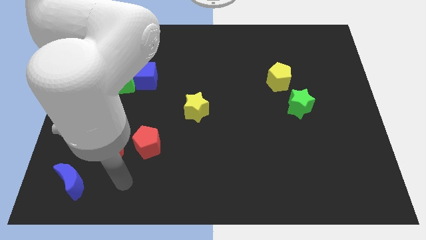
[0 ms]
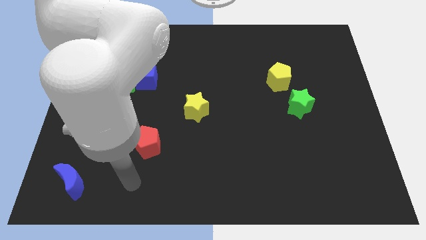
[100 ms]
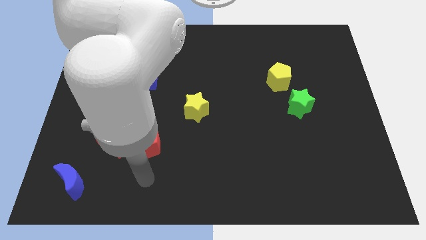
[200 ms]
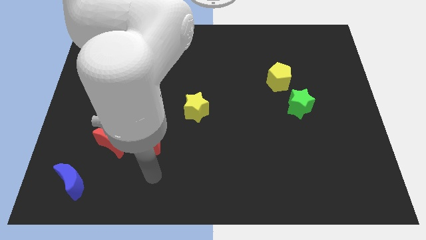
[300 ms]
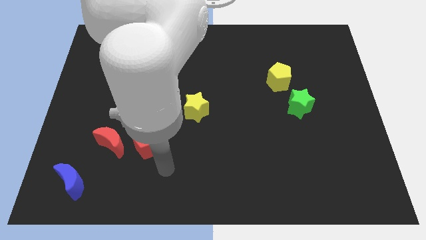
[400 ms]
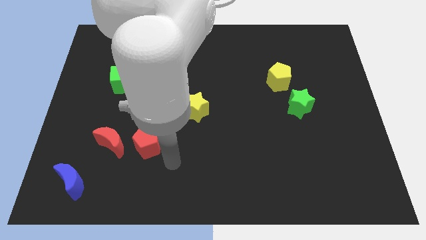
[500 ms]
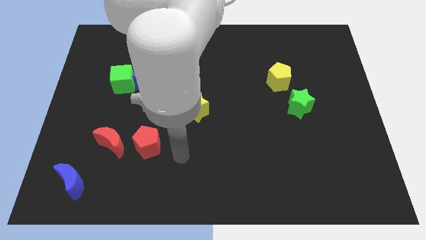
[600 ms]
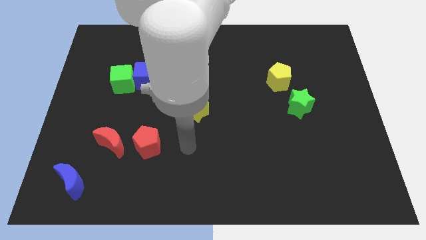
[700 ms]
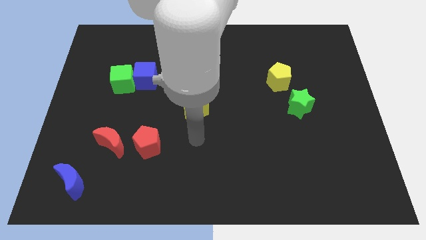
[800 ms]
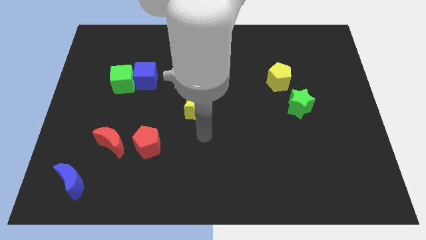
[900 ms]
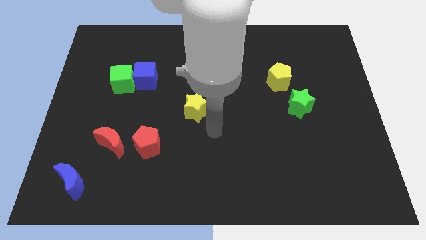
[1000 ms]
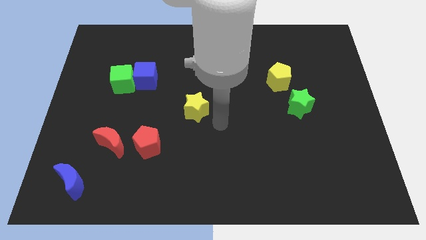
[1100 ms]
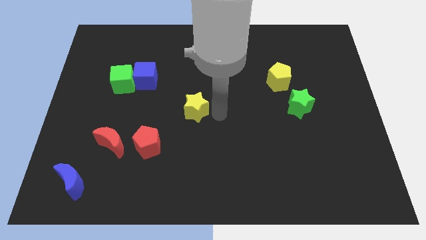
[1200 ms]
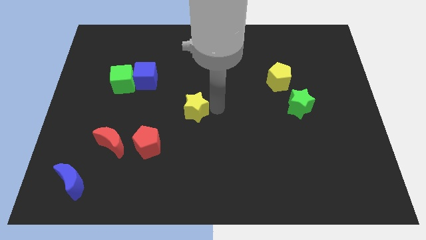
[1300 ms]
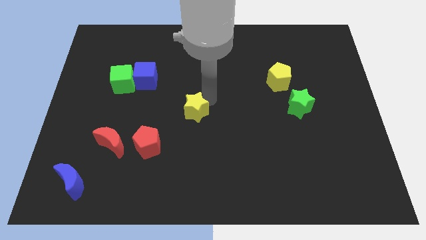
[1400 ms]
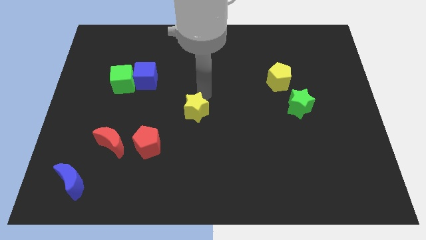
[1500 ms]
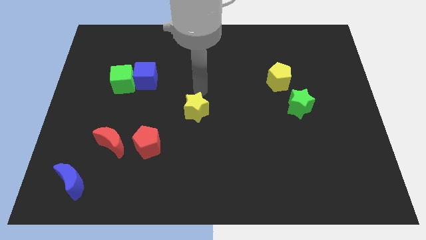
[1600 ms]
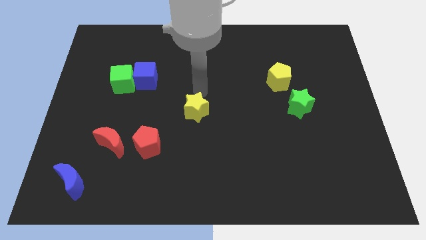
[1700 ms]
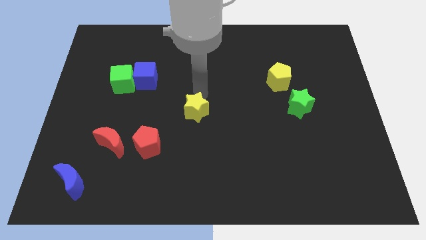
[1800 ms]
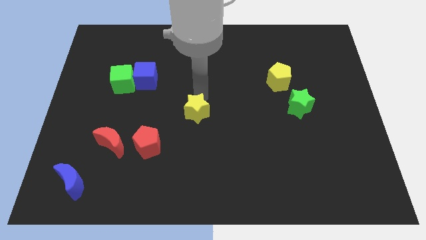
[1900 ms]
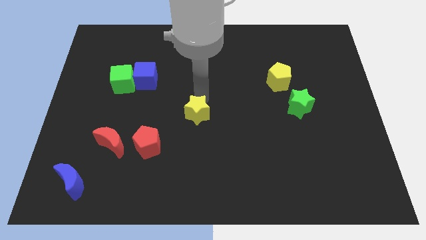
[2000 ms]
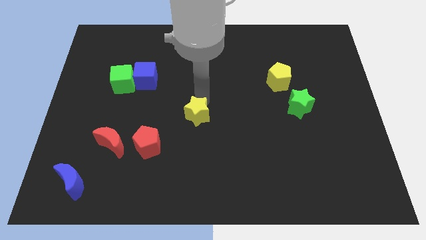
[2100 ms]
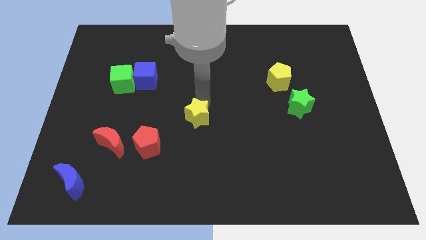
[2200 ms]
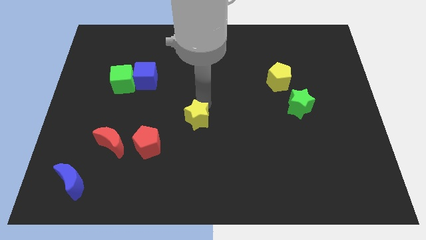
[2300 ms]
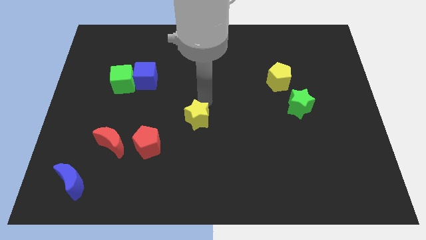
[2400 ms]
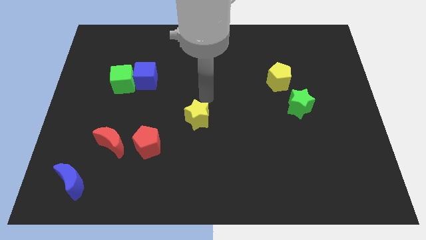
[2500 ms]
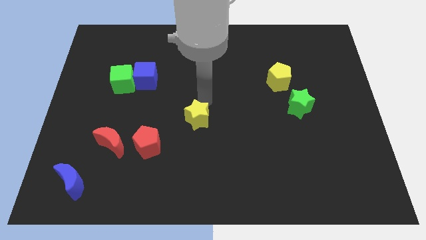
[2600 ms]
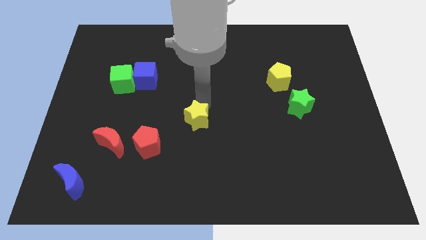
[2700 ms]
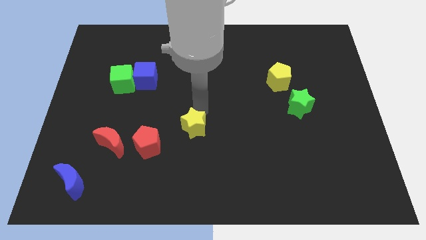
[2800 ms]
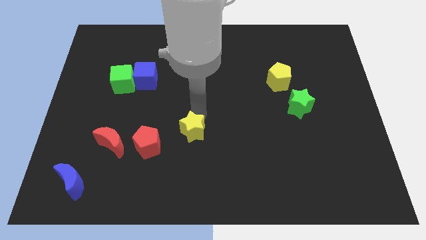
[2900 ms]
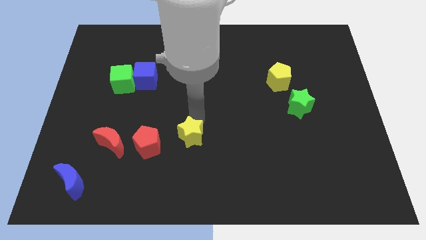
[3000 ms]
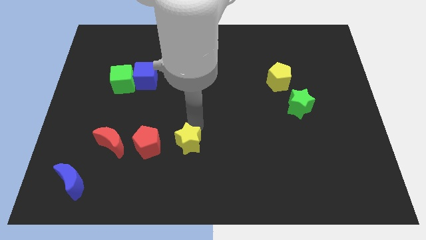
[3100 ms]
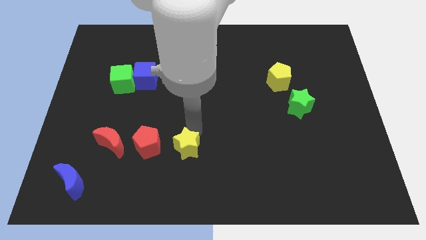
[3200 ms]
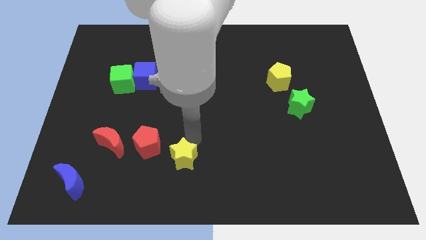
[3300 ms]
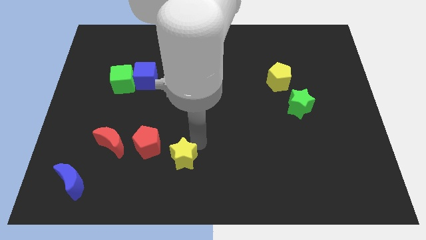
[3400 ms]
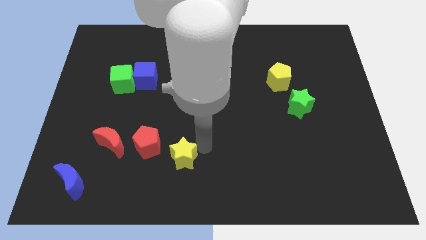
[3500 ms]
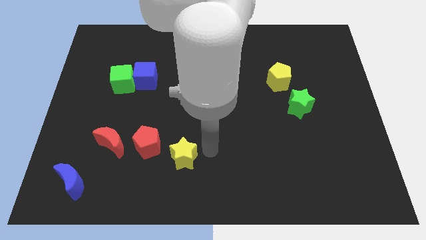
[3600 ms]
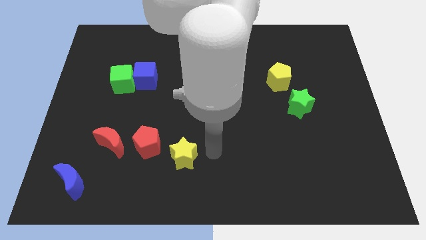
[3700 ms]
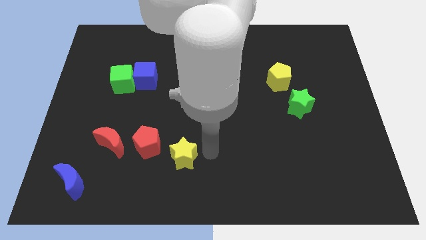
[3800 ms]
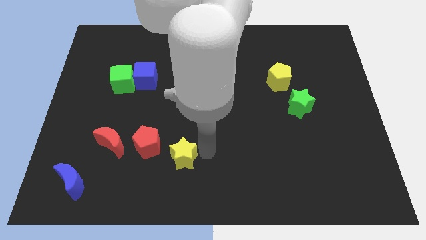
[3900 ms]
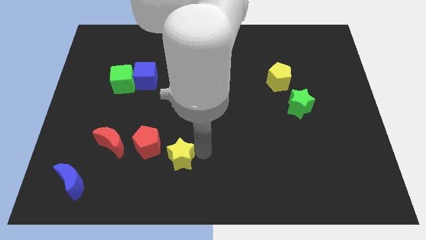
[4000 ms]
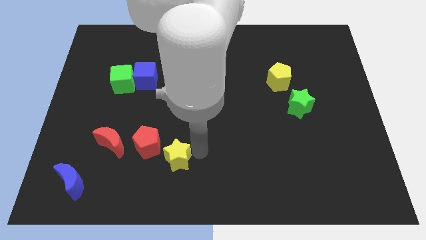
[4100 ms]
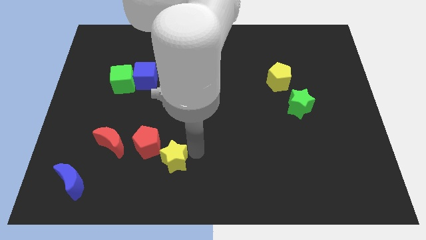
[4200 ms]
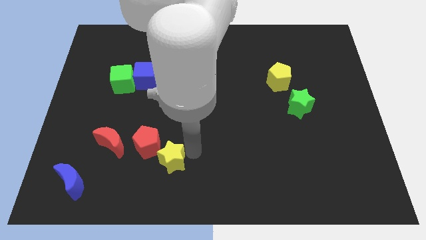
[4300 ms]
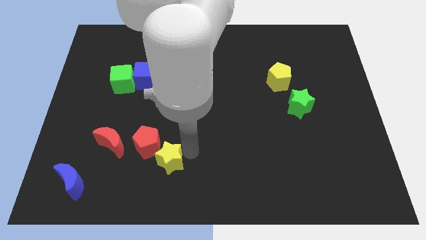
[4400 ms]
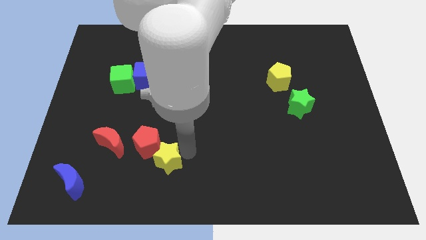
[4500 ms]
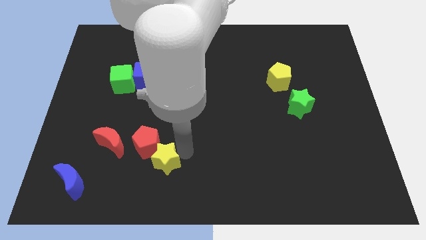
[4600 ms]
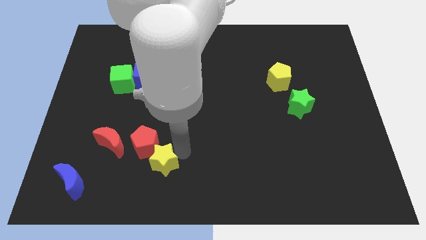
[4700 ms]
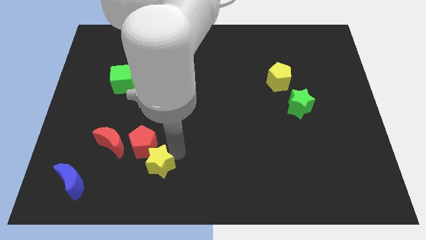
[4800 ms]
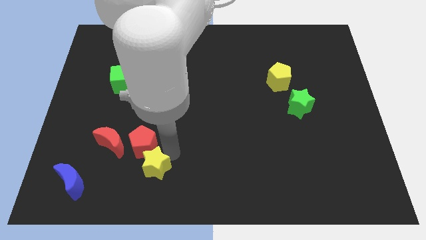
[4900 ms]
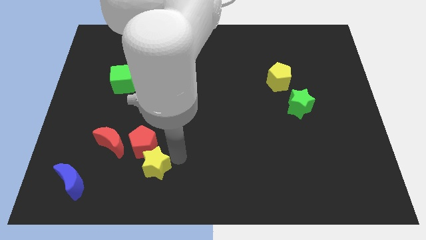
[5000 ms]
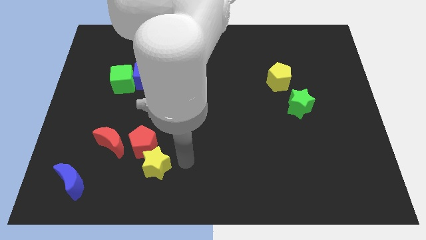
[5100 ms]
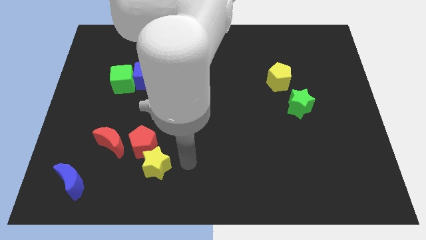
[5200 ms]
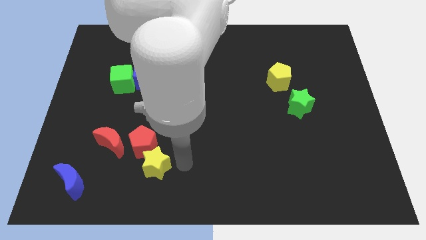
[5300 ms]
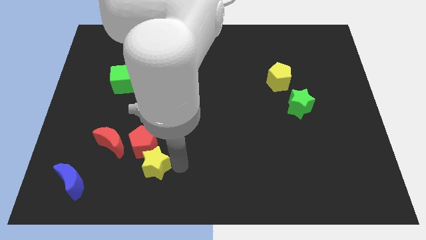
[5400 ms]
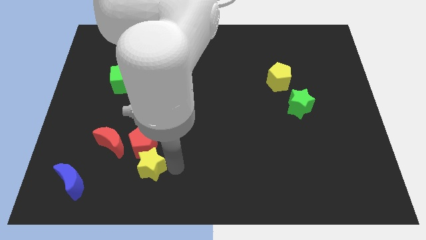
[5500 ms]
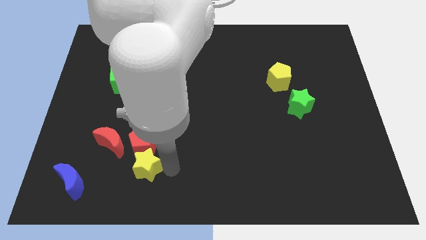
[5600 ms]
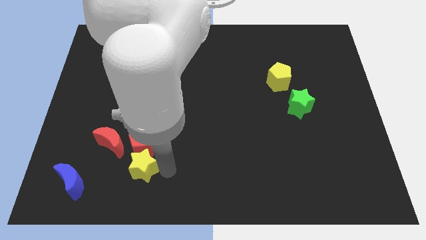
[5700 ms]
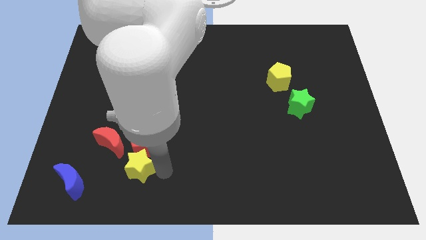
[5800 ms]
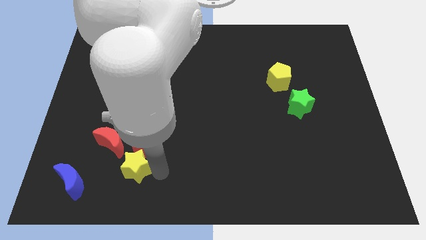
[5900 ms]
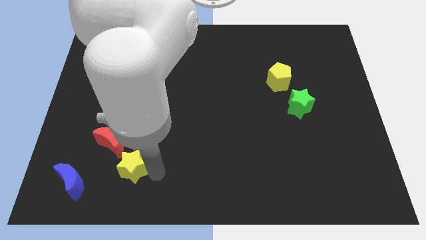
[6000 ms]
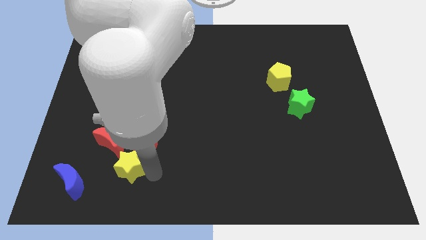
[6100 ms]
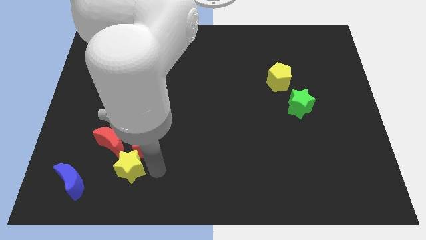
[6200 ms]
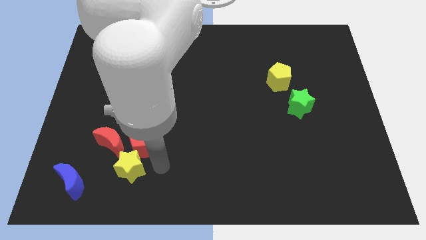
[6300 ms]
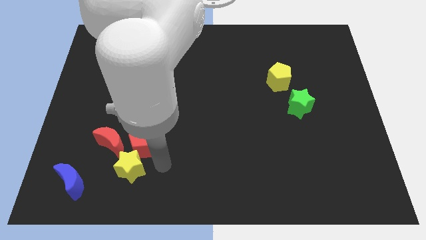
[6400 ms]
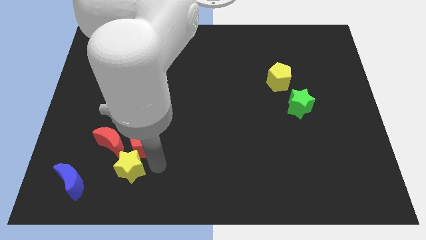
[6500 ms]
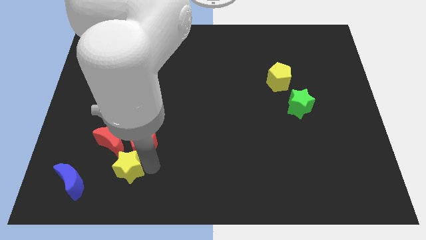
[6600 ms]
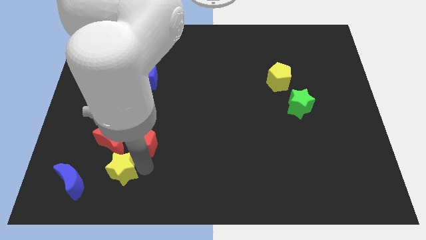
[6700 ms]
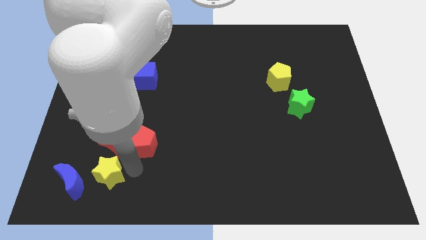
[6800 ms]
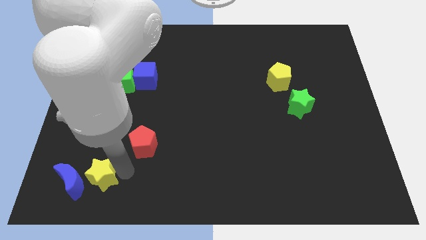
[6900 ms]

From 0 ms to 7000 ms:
put the yellow star towards the blue moon

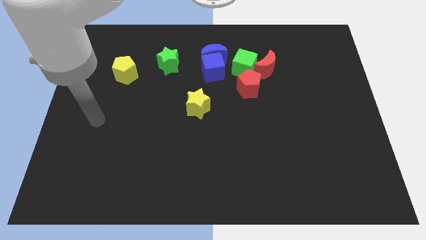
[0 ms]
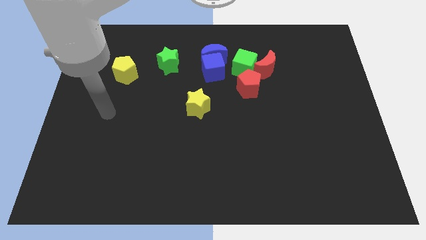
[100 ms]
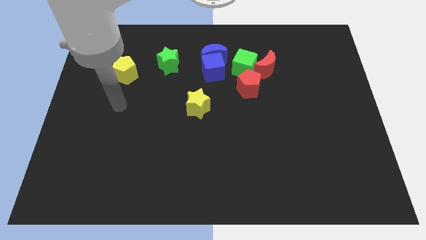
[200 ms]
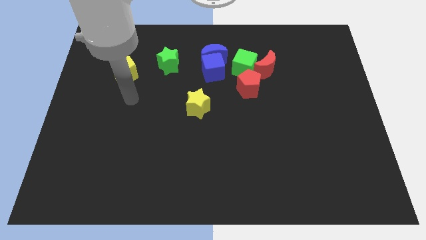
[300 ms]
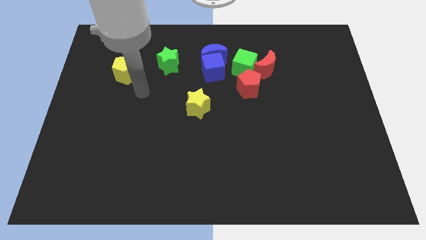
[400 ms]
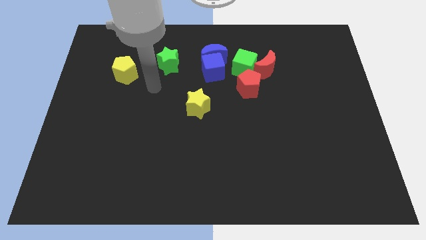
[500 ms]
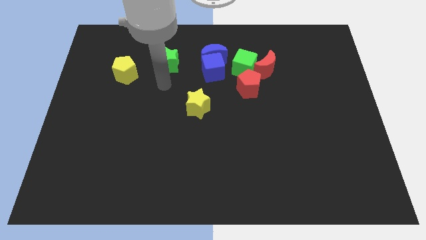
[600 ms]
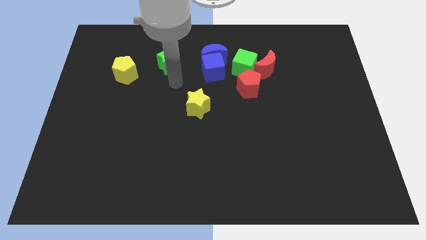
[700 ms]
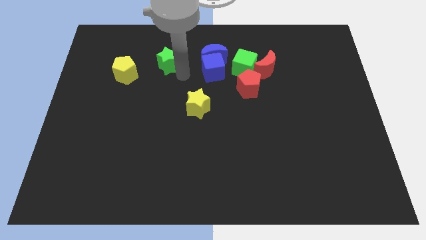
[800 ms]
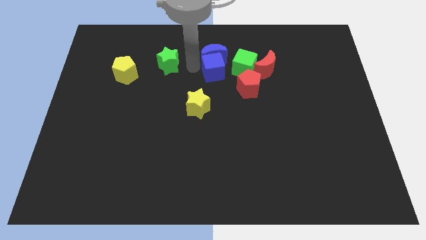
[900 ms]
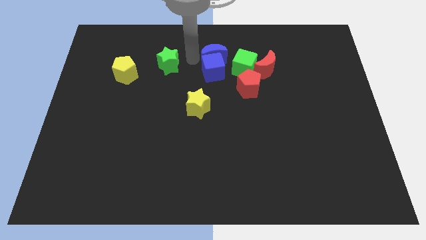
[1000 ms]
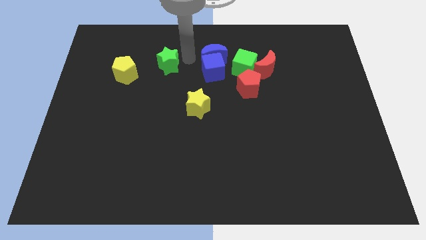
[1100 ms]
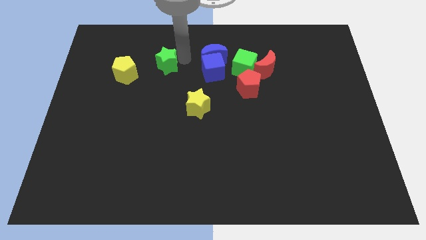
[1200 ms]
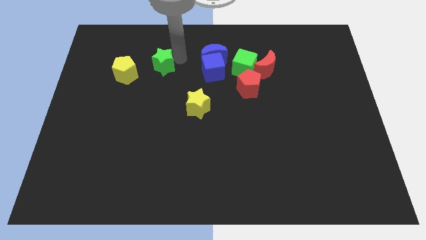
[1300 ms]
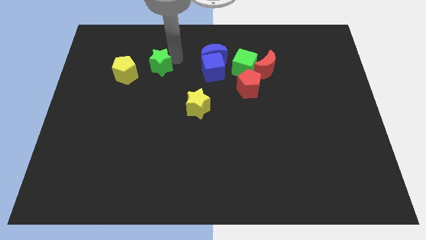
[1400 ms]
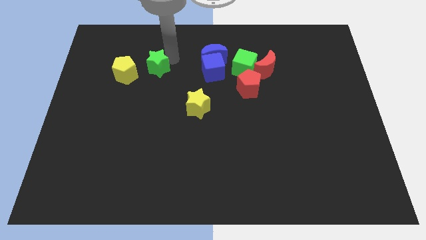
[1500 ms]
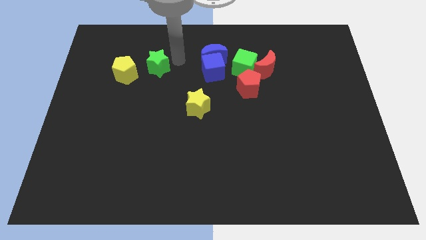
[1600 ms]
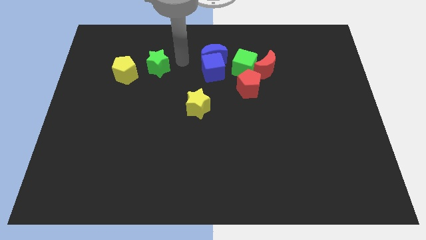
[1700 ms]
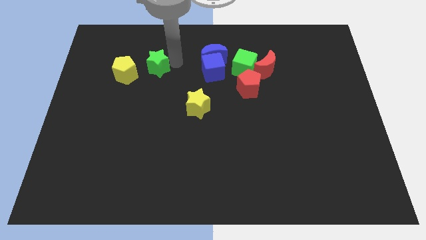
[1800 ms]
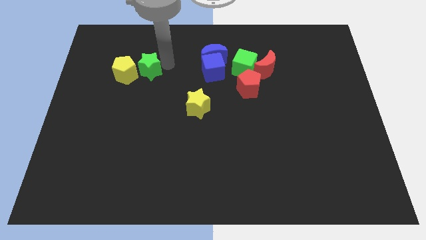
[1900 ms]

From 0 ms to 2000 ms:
move the green star close to the yellow pentagon
